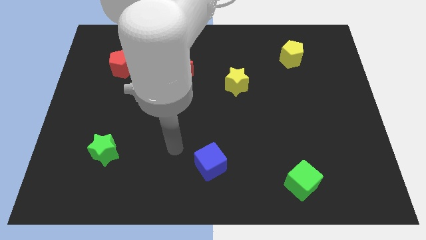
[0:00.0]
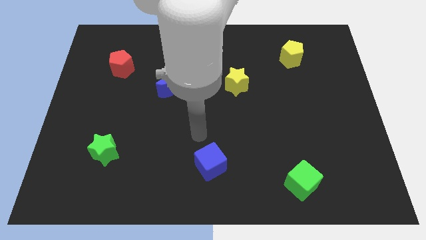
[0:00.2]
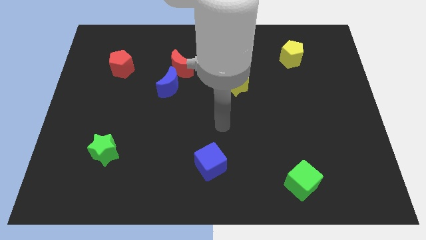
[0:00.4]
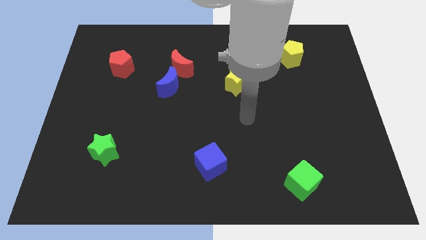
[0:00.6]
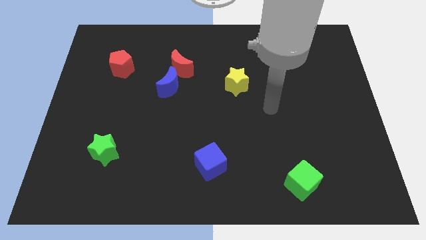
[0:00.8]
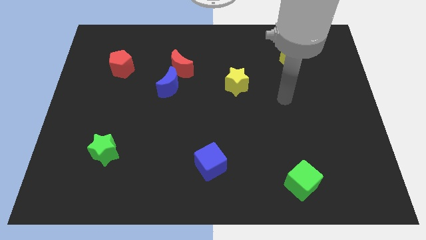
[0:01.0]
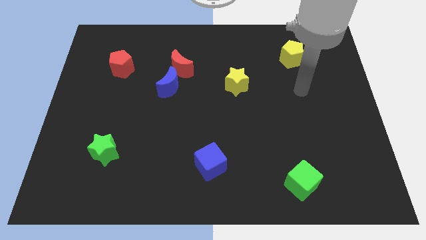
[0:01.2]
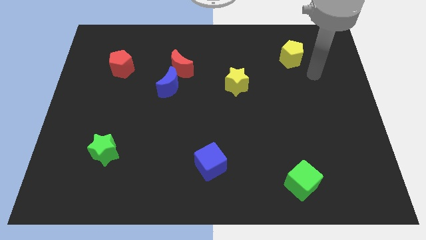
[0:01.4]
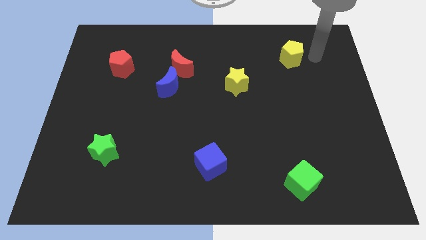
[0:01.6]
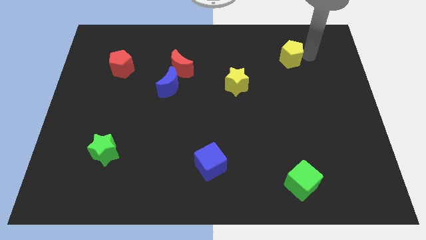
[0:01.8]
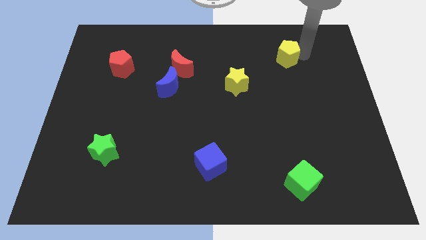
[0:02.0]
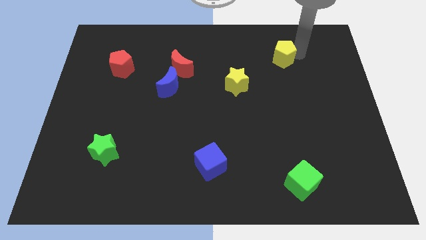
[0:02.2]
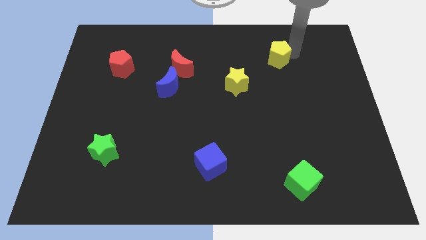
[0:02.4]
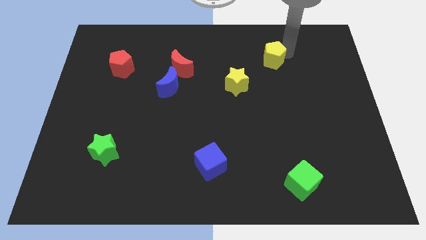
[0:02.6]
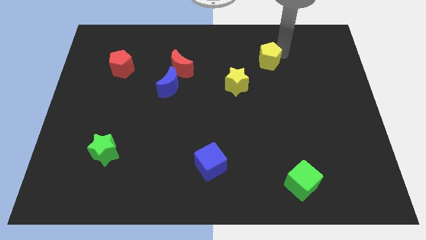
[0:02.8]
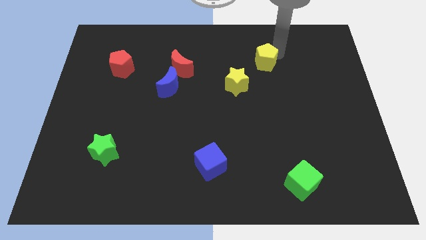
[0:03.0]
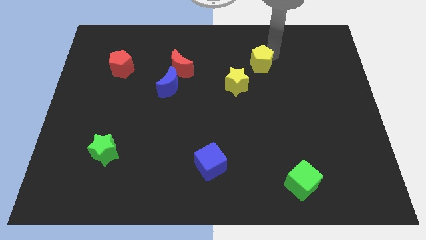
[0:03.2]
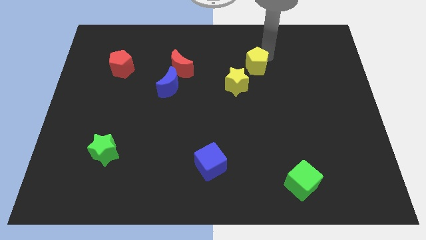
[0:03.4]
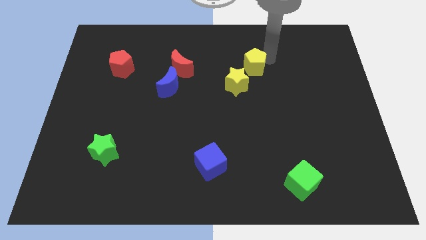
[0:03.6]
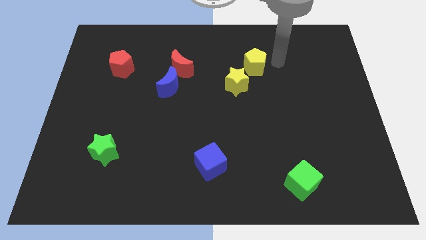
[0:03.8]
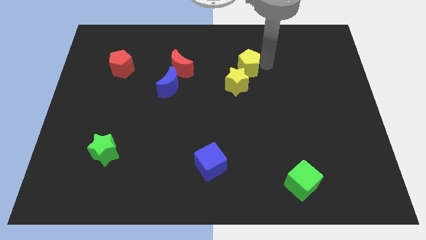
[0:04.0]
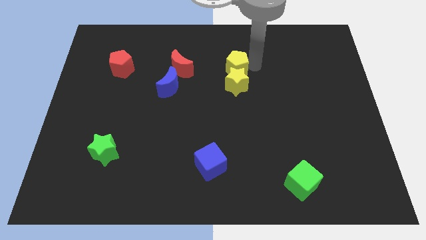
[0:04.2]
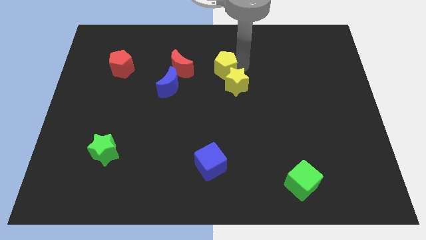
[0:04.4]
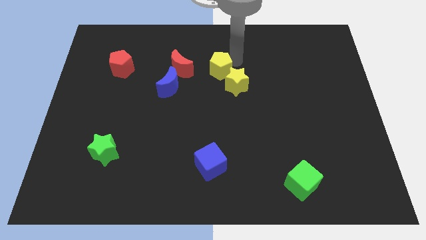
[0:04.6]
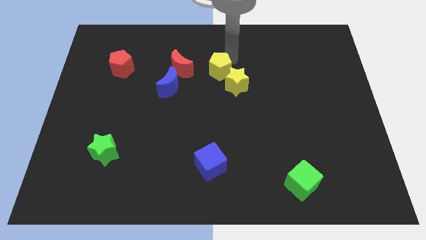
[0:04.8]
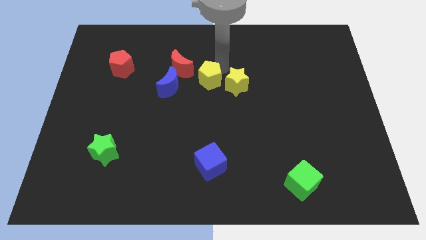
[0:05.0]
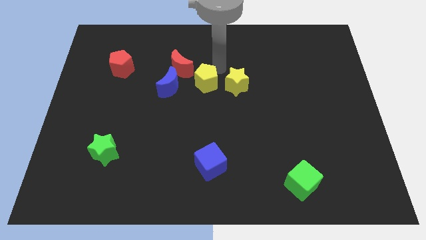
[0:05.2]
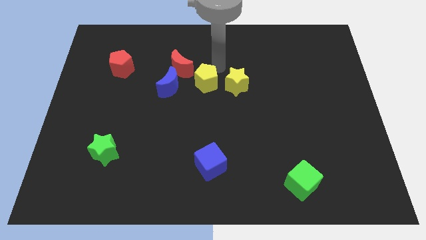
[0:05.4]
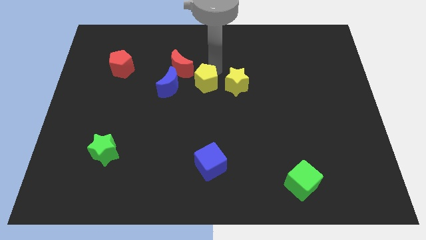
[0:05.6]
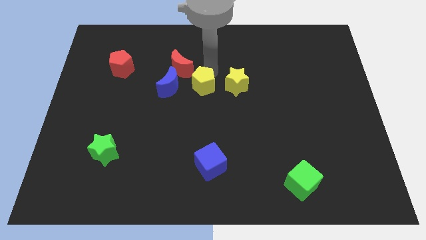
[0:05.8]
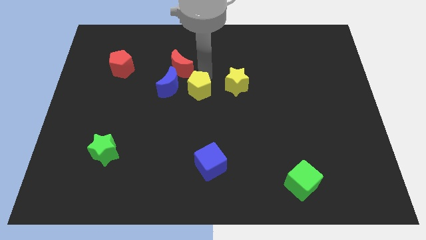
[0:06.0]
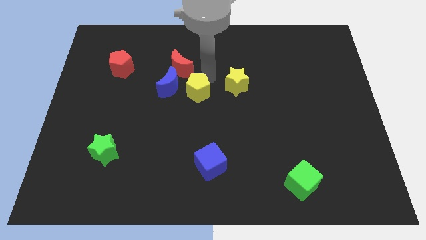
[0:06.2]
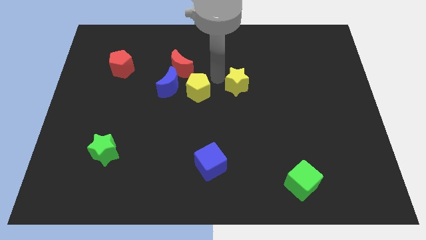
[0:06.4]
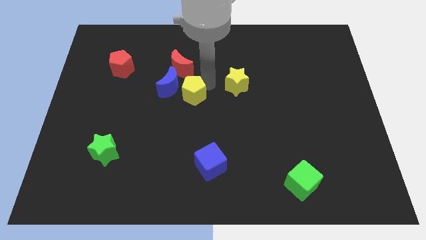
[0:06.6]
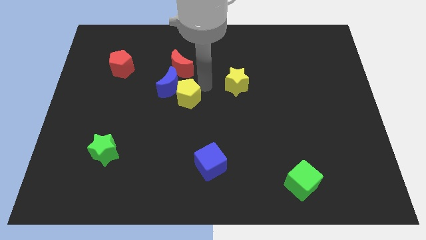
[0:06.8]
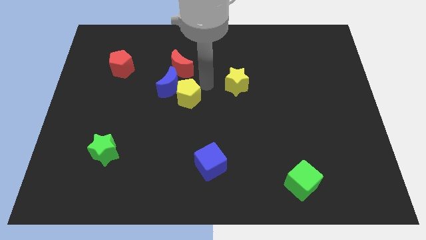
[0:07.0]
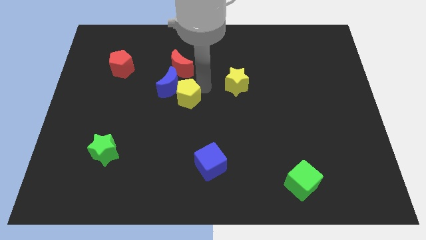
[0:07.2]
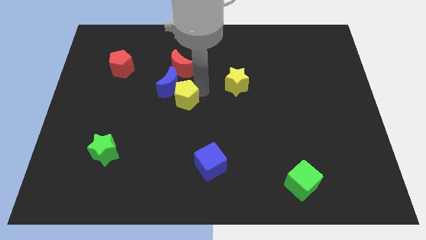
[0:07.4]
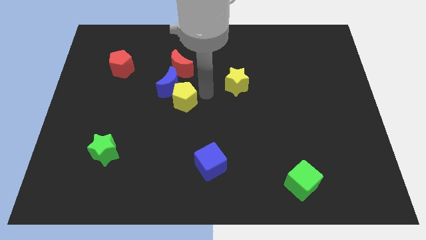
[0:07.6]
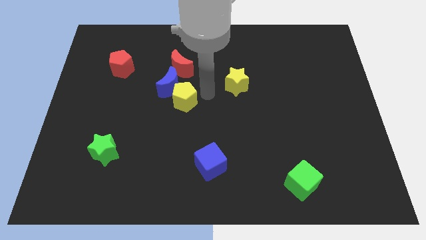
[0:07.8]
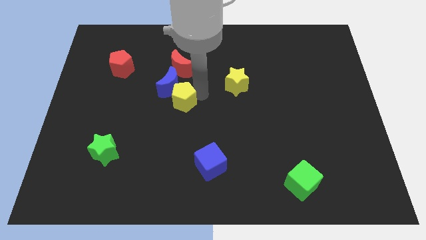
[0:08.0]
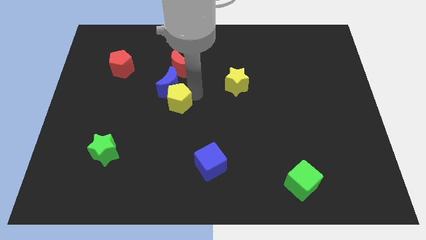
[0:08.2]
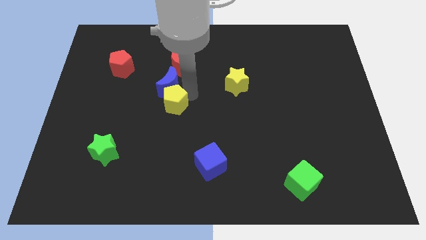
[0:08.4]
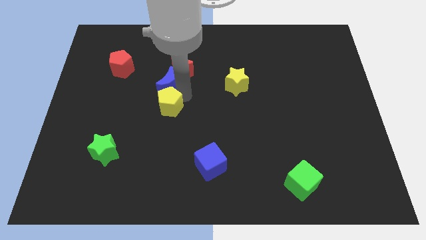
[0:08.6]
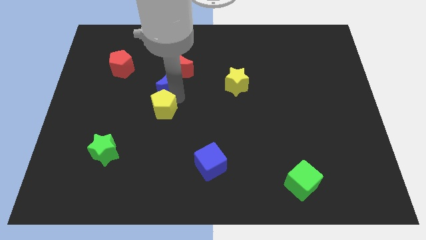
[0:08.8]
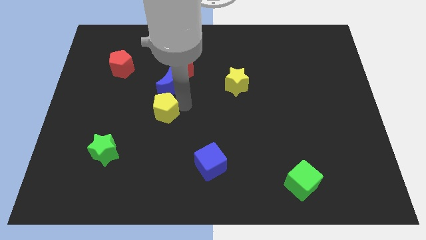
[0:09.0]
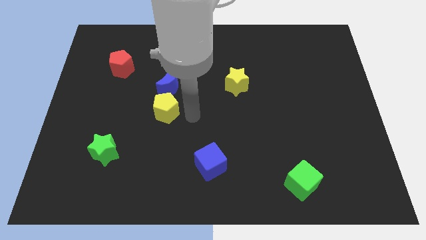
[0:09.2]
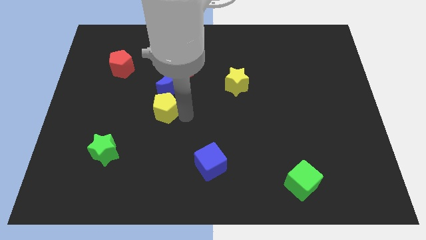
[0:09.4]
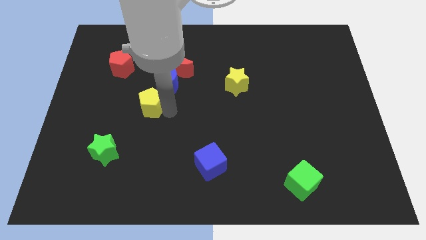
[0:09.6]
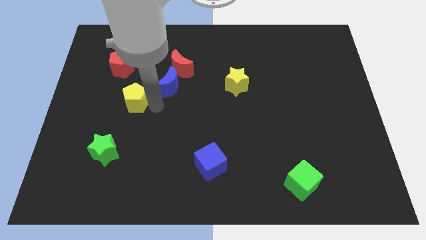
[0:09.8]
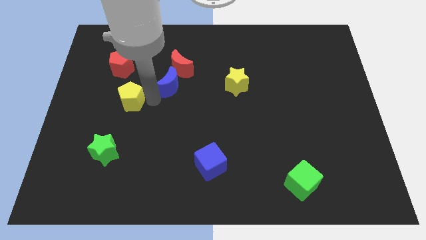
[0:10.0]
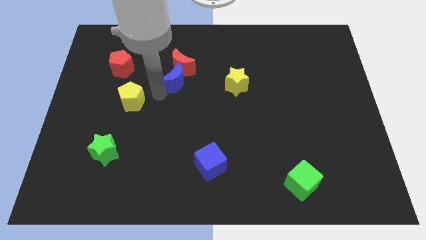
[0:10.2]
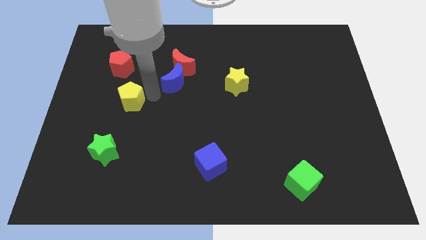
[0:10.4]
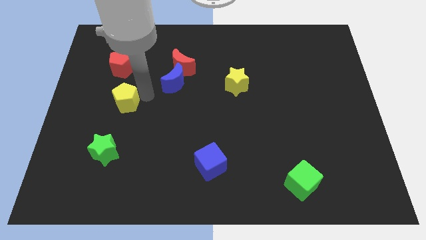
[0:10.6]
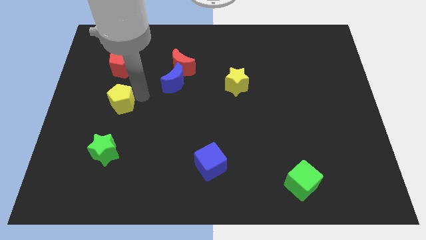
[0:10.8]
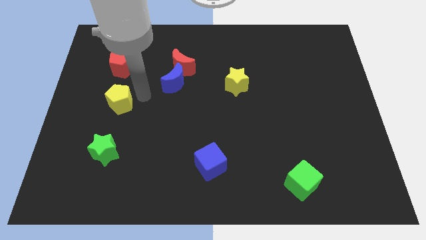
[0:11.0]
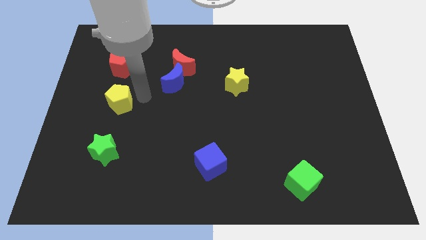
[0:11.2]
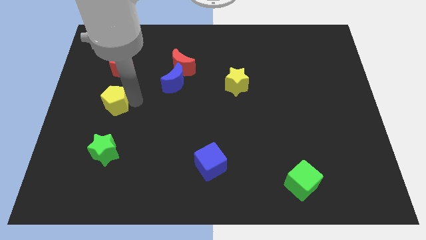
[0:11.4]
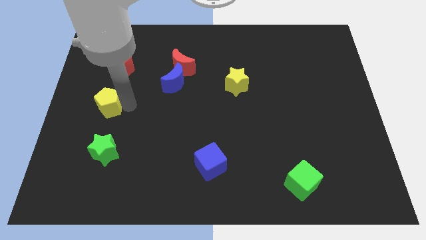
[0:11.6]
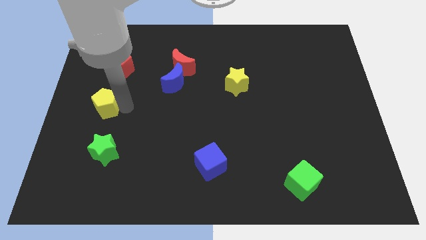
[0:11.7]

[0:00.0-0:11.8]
slide the yellow pentagon to the center left
